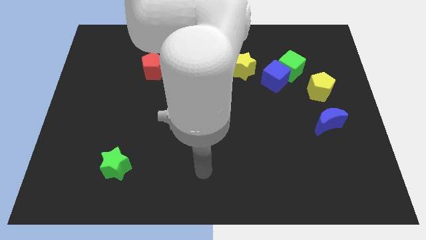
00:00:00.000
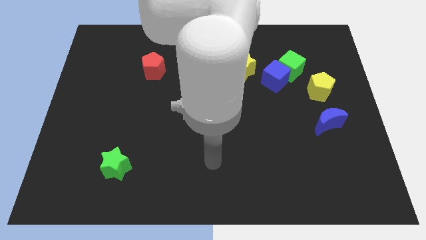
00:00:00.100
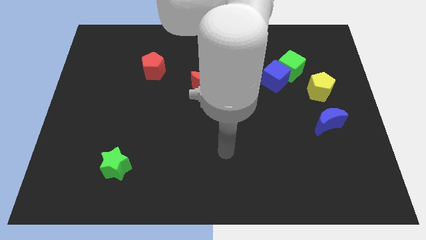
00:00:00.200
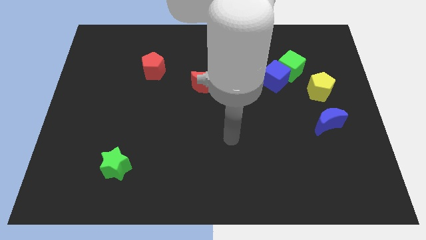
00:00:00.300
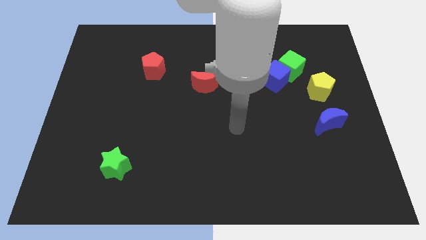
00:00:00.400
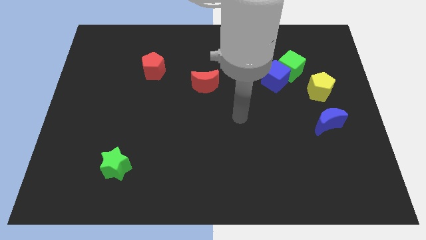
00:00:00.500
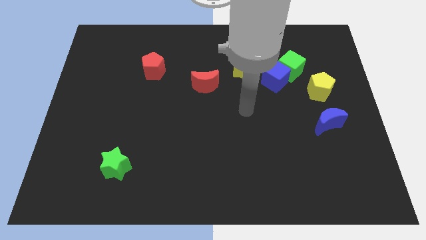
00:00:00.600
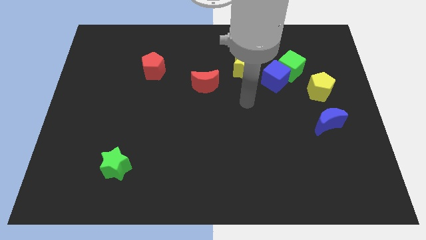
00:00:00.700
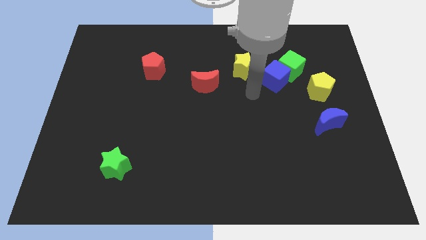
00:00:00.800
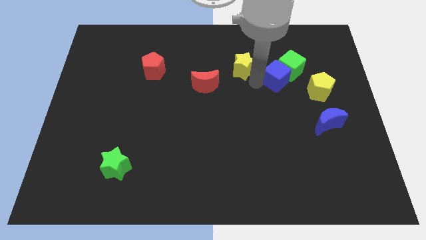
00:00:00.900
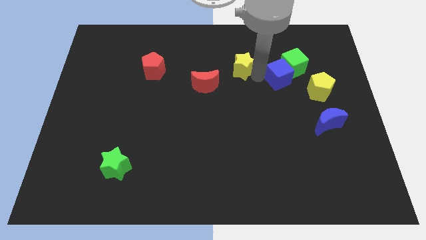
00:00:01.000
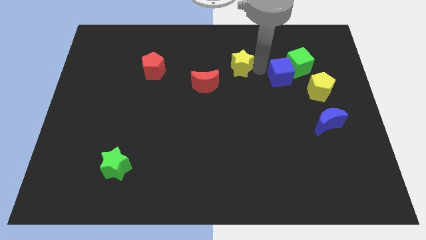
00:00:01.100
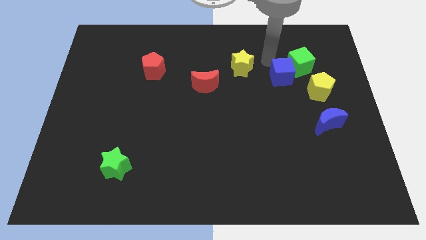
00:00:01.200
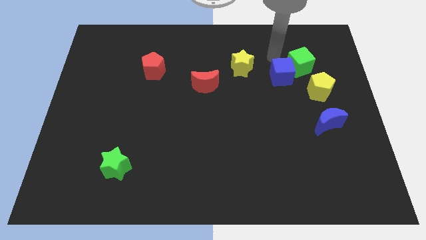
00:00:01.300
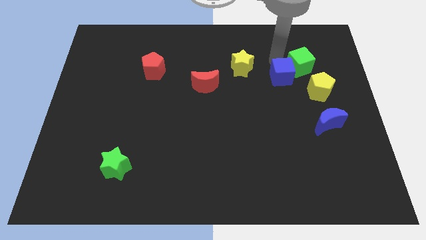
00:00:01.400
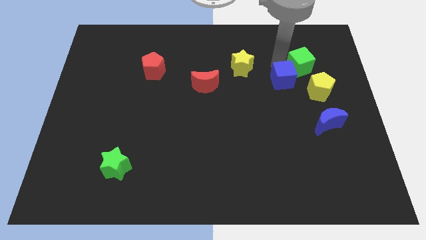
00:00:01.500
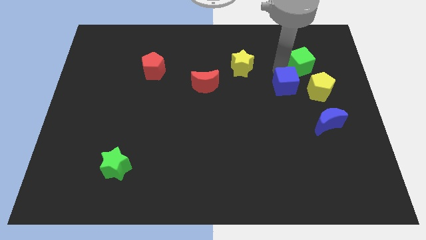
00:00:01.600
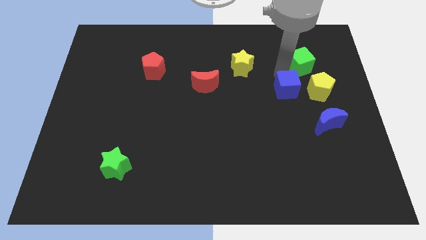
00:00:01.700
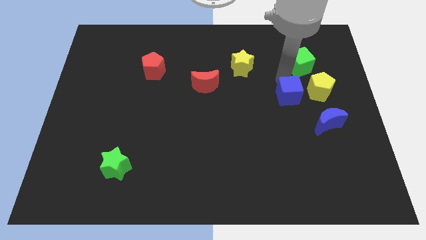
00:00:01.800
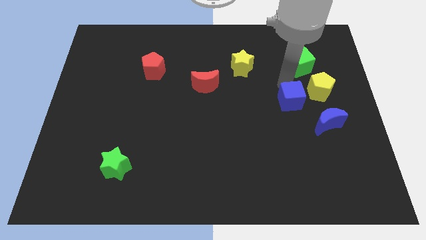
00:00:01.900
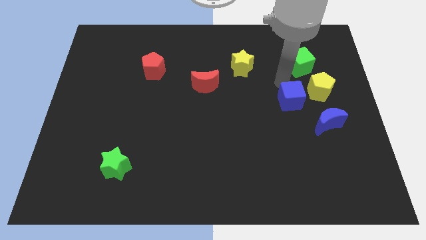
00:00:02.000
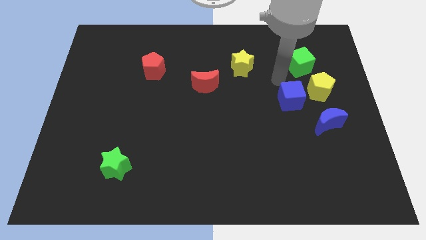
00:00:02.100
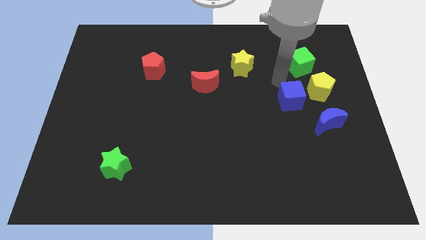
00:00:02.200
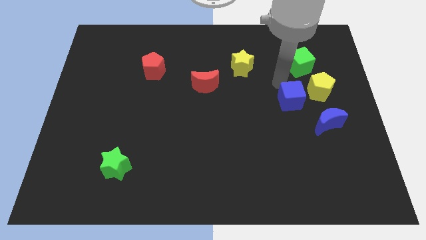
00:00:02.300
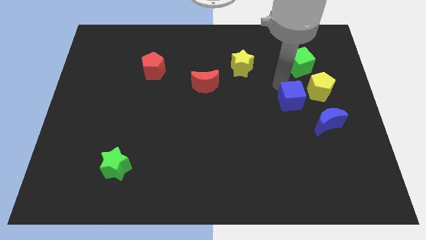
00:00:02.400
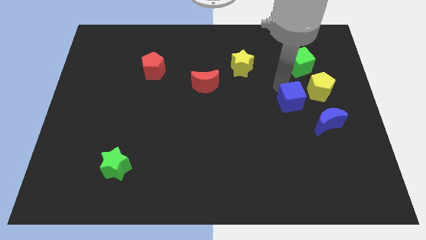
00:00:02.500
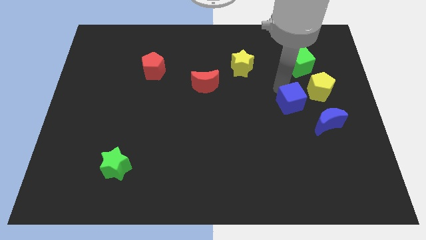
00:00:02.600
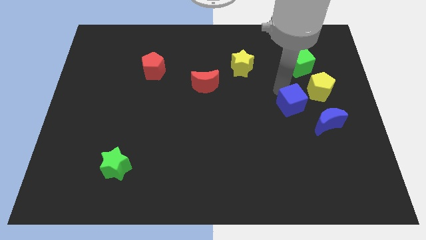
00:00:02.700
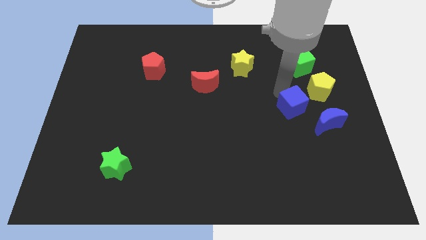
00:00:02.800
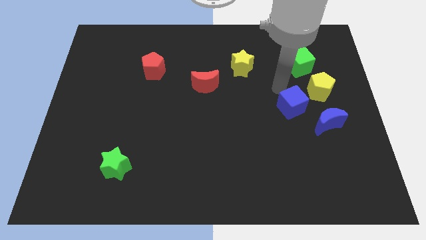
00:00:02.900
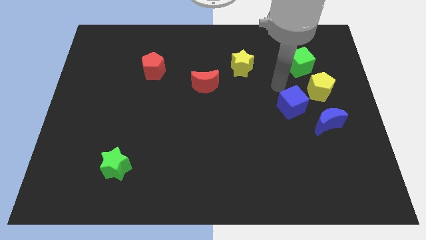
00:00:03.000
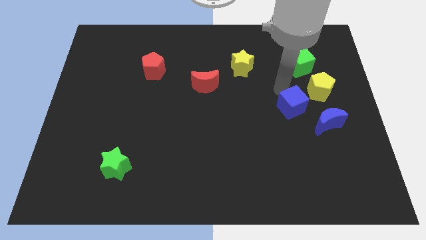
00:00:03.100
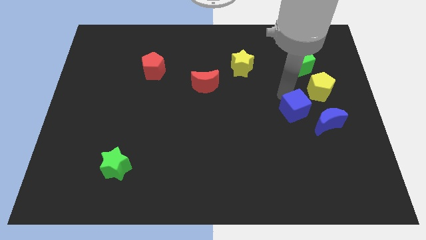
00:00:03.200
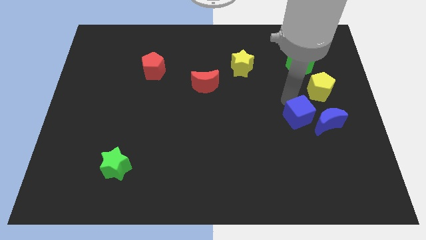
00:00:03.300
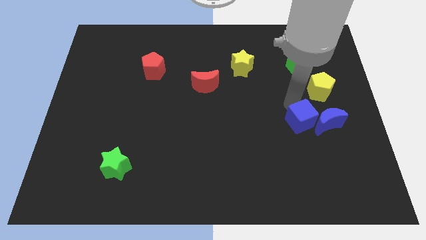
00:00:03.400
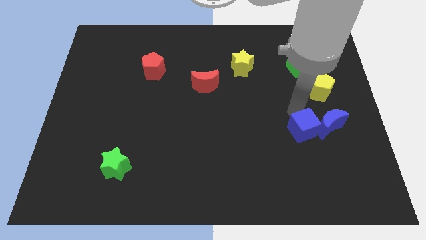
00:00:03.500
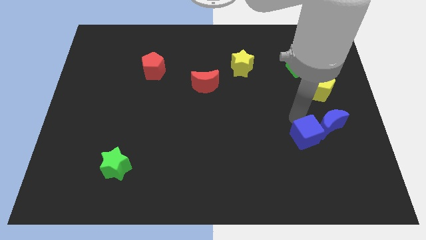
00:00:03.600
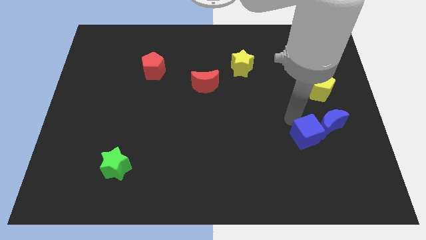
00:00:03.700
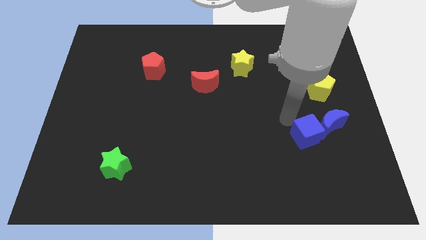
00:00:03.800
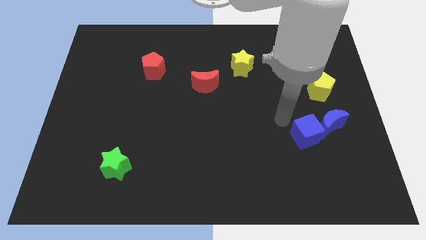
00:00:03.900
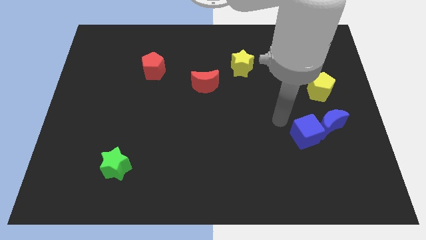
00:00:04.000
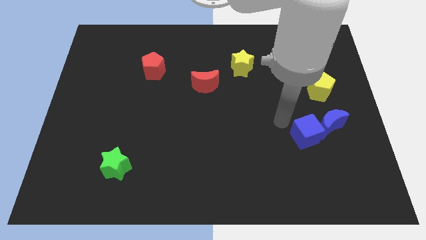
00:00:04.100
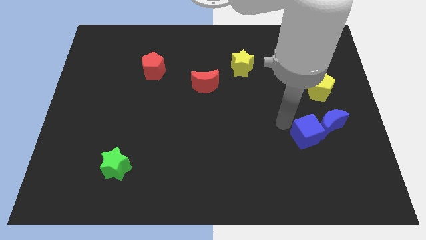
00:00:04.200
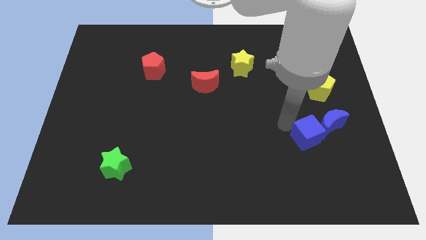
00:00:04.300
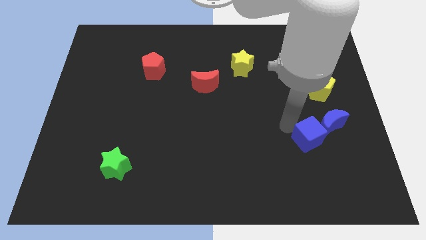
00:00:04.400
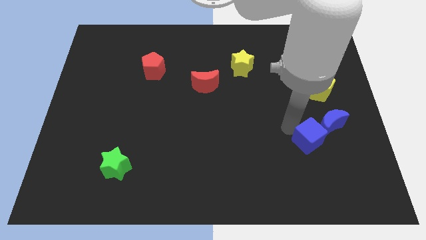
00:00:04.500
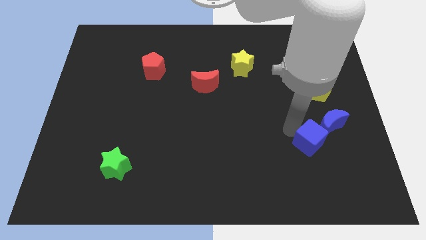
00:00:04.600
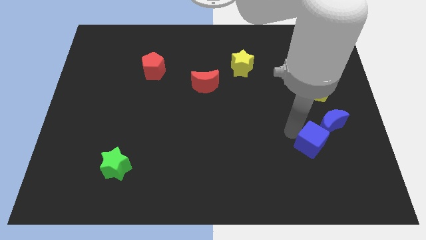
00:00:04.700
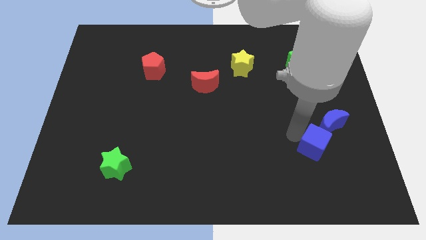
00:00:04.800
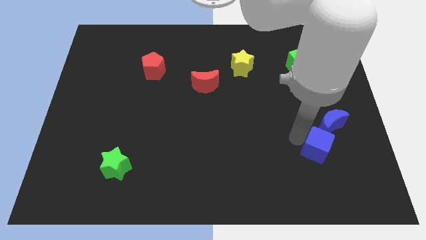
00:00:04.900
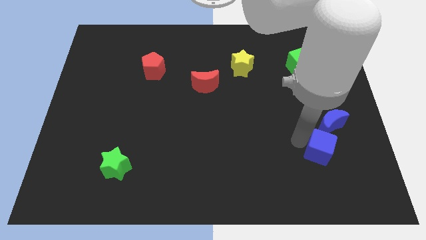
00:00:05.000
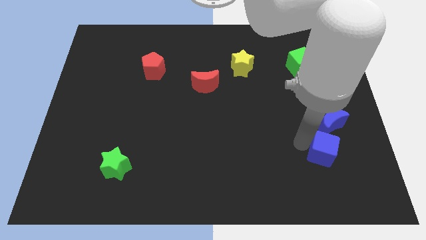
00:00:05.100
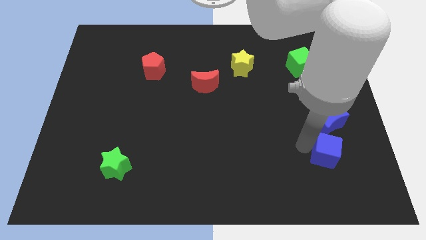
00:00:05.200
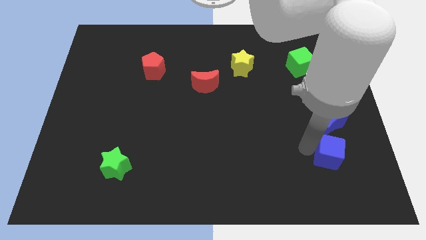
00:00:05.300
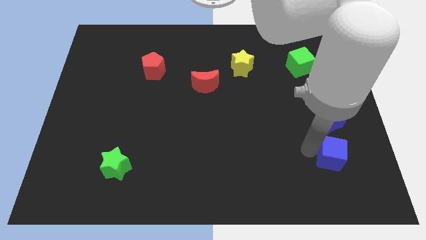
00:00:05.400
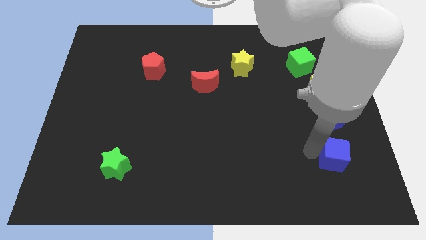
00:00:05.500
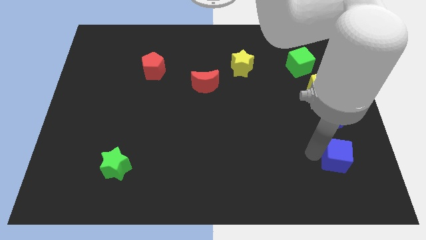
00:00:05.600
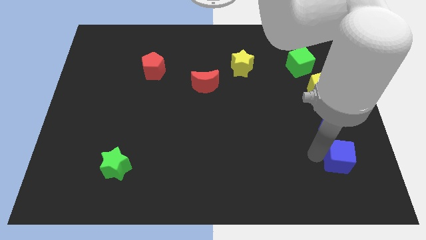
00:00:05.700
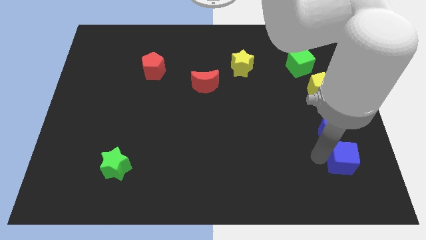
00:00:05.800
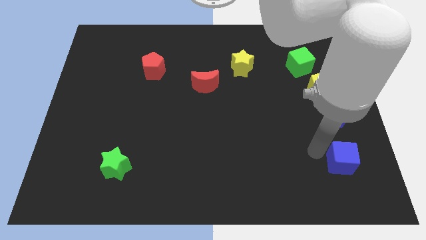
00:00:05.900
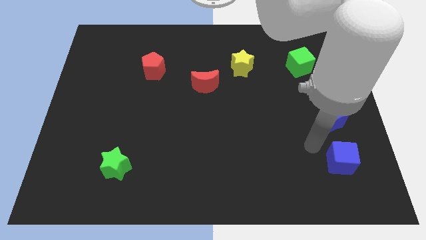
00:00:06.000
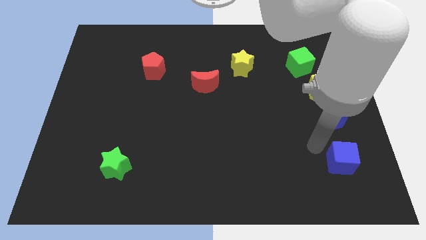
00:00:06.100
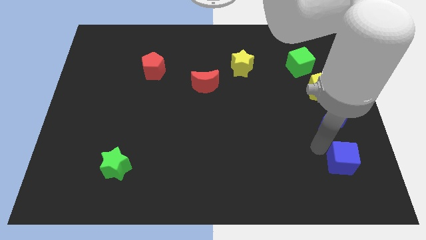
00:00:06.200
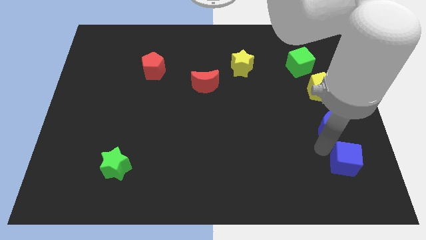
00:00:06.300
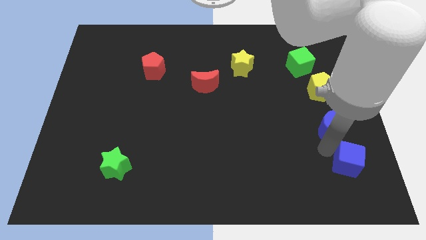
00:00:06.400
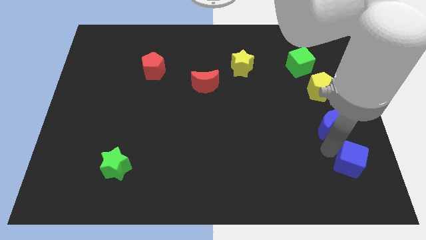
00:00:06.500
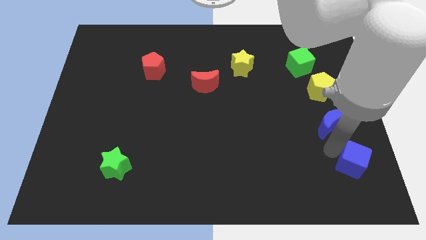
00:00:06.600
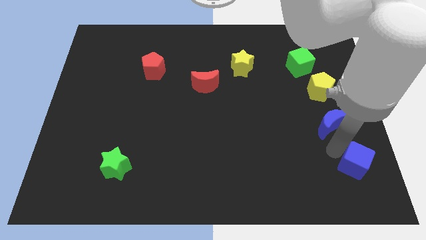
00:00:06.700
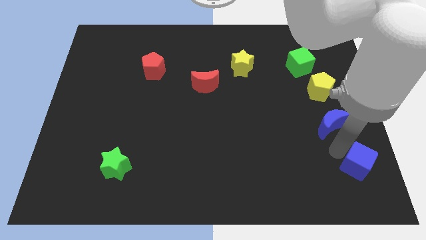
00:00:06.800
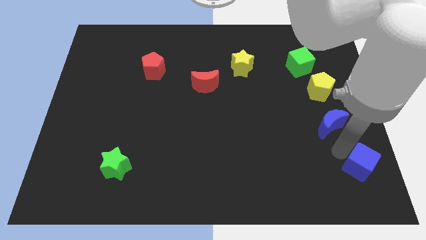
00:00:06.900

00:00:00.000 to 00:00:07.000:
put the blue cube to the bottom right
